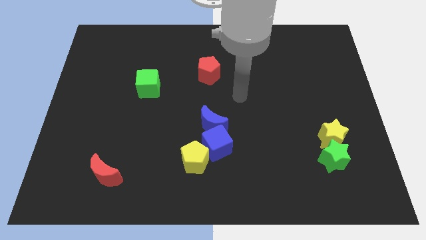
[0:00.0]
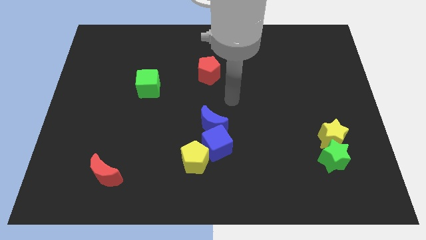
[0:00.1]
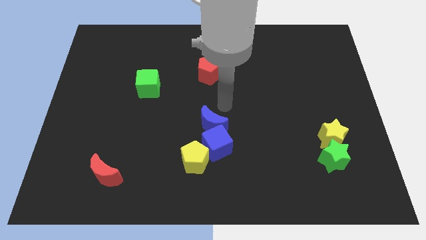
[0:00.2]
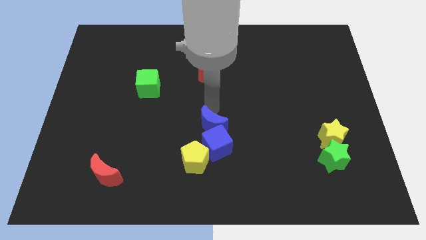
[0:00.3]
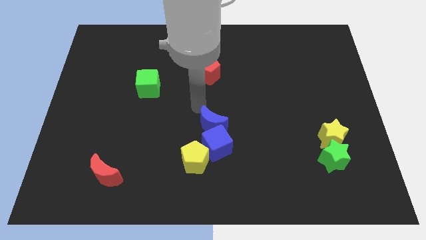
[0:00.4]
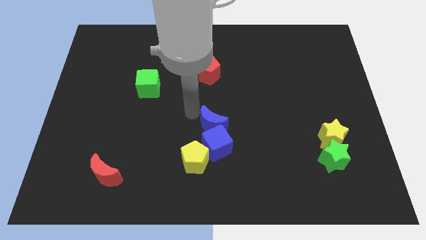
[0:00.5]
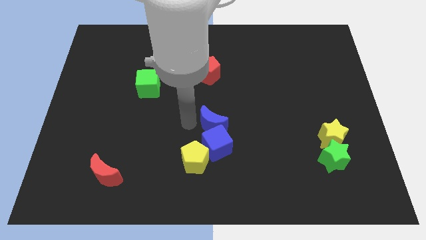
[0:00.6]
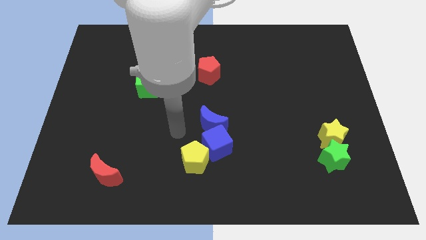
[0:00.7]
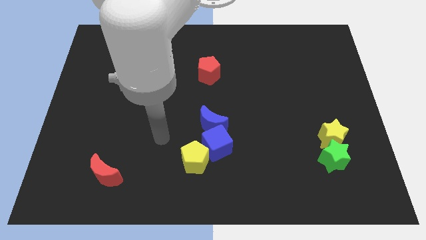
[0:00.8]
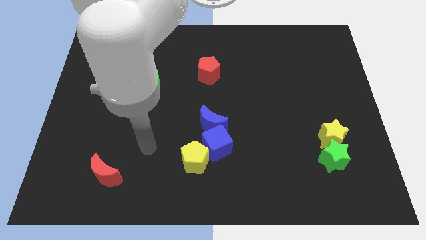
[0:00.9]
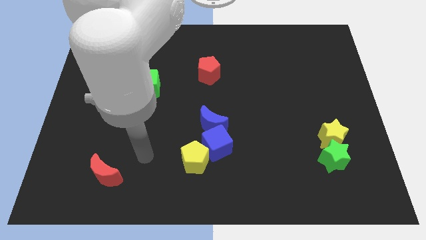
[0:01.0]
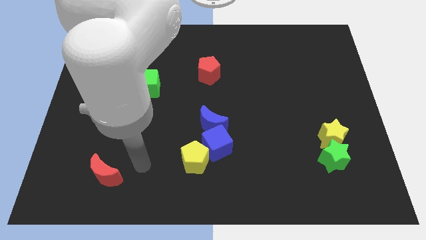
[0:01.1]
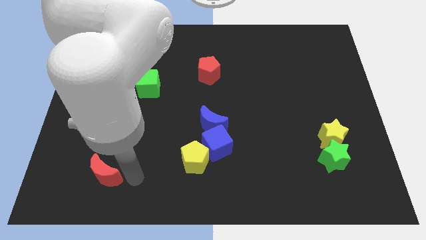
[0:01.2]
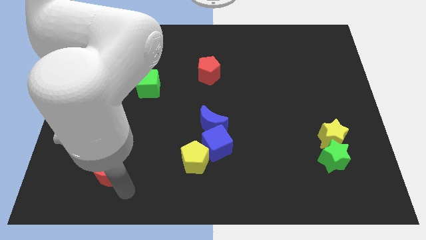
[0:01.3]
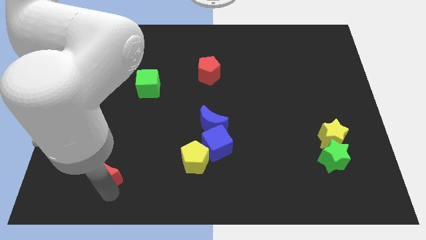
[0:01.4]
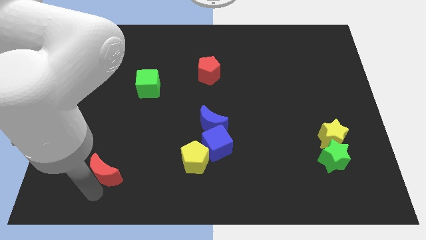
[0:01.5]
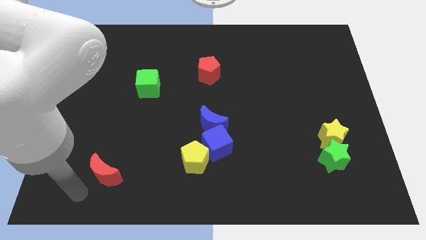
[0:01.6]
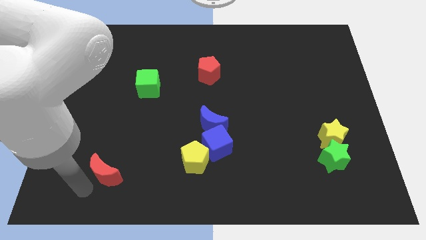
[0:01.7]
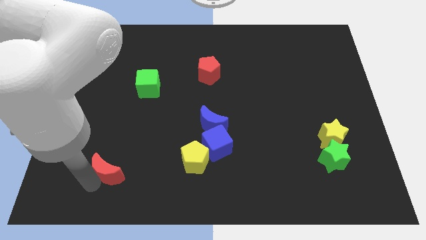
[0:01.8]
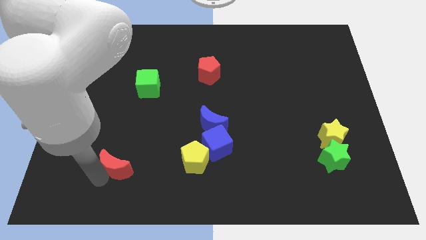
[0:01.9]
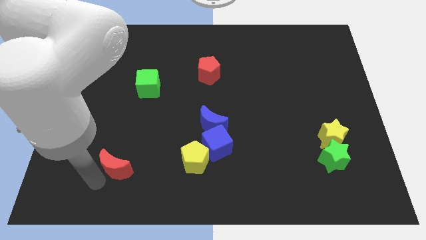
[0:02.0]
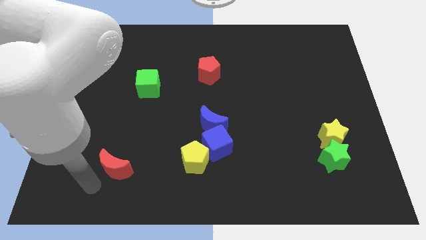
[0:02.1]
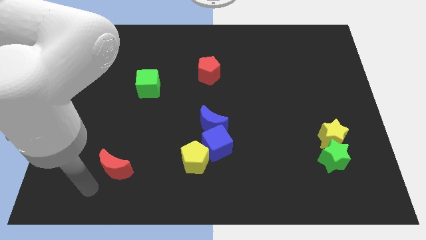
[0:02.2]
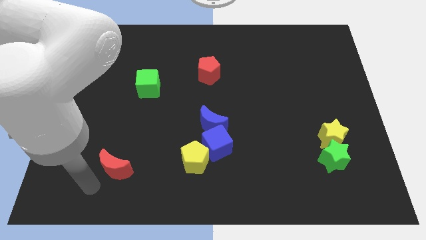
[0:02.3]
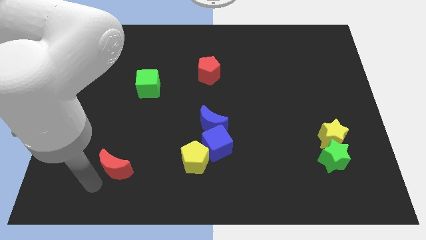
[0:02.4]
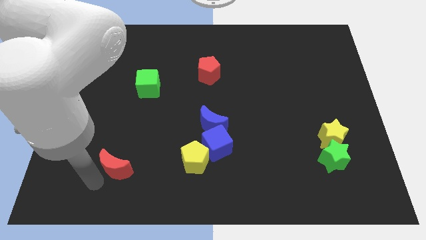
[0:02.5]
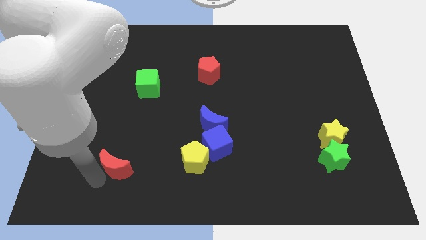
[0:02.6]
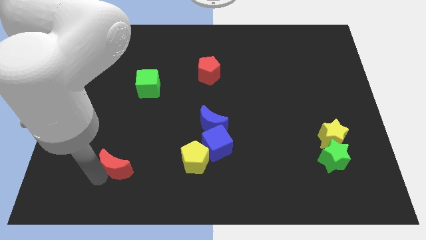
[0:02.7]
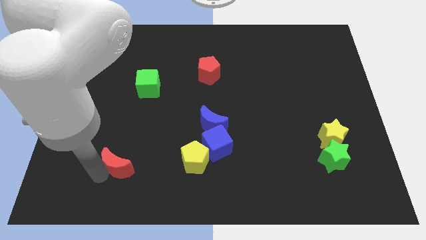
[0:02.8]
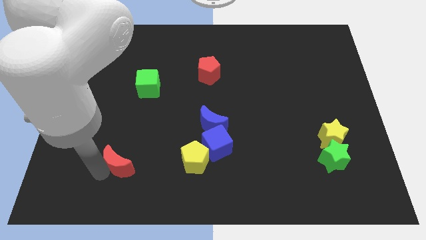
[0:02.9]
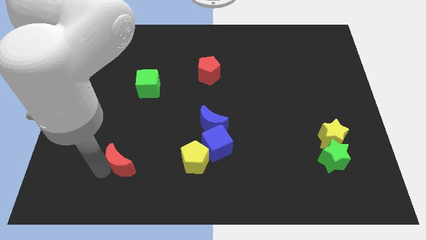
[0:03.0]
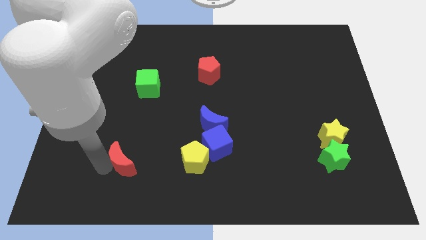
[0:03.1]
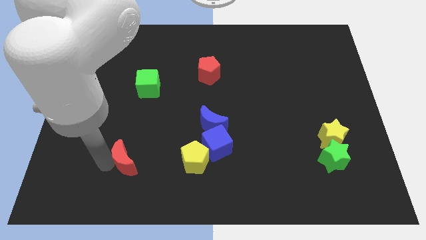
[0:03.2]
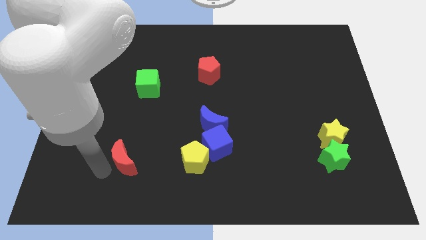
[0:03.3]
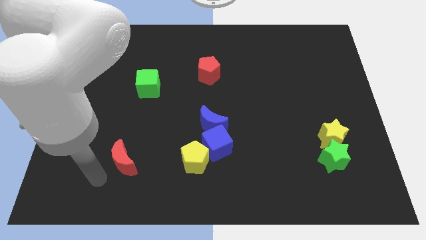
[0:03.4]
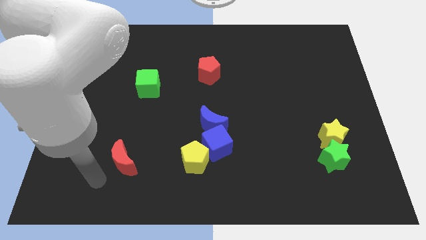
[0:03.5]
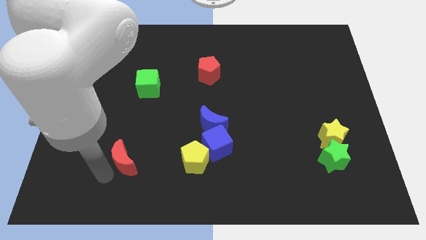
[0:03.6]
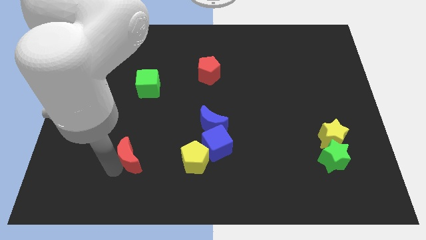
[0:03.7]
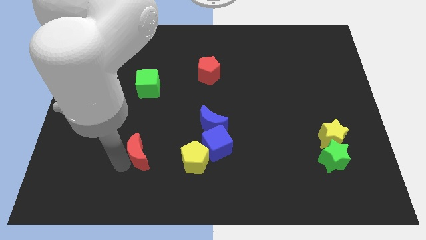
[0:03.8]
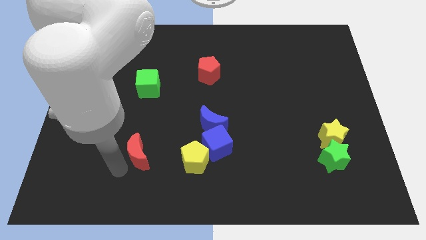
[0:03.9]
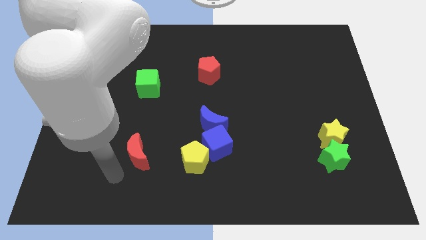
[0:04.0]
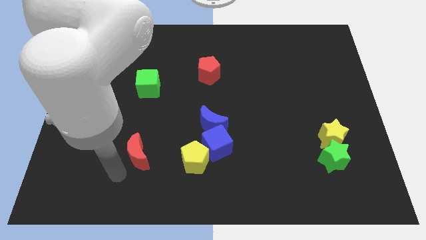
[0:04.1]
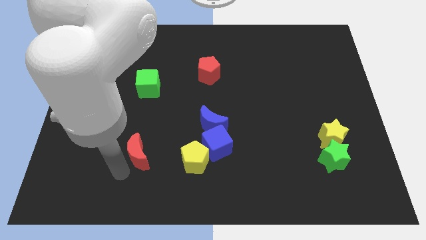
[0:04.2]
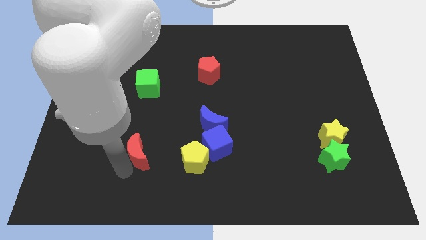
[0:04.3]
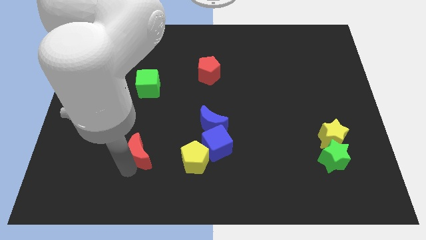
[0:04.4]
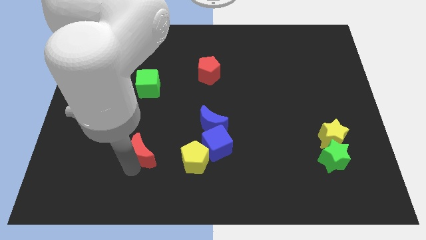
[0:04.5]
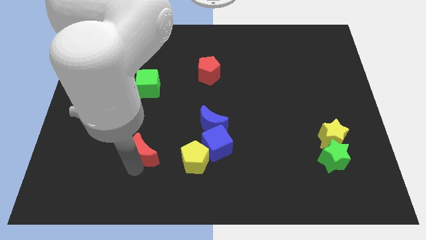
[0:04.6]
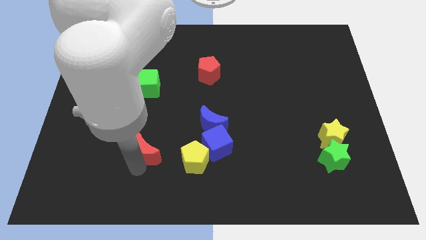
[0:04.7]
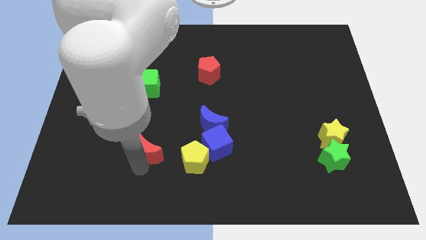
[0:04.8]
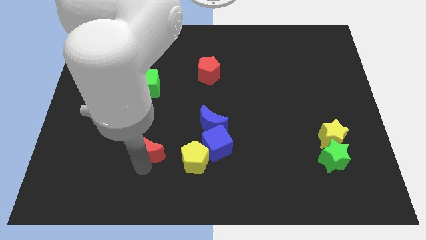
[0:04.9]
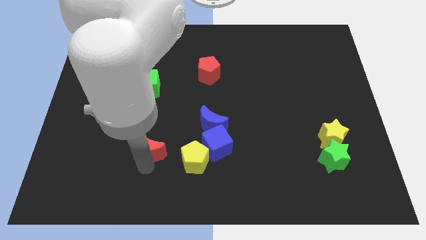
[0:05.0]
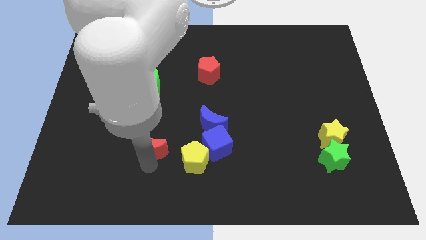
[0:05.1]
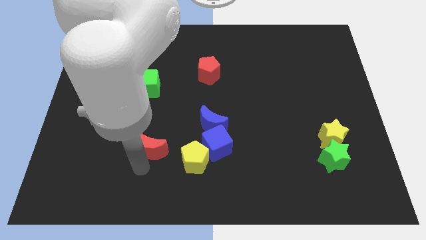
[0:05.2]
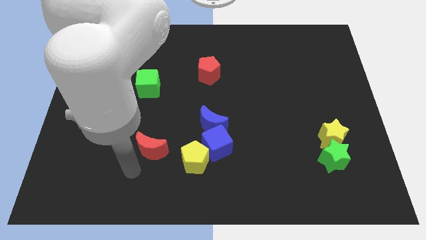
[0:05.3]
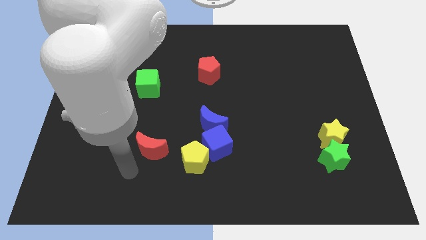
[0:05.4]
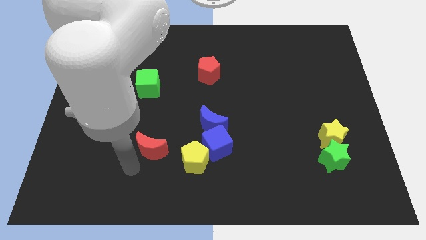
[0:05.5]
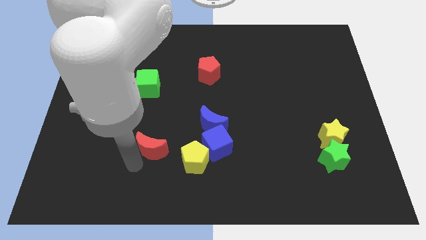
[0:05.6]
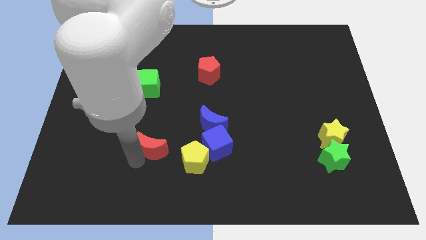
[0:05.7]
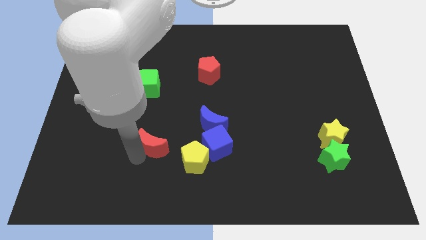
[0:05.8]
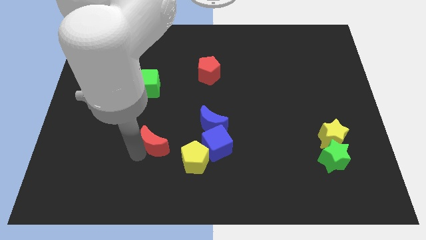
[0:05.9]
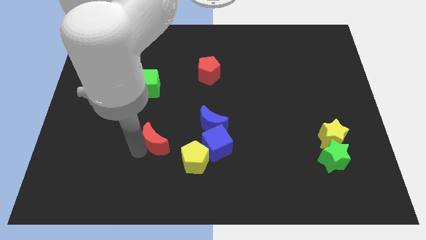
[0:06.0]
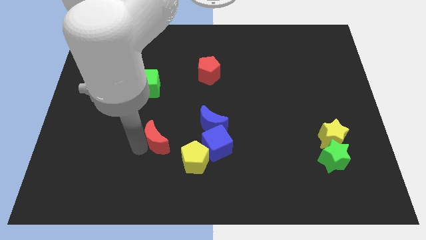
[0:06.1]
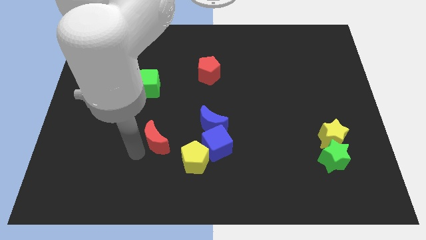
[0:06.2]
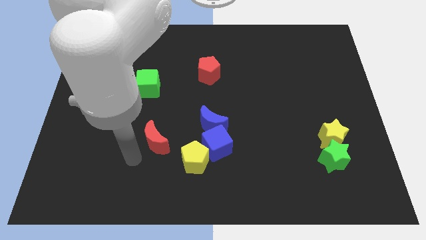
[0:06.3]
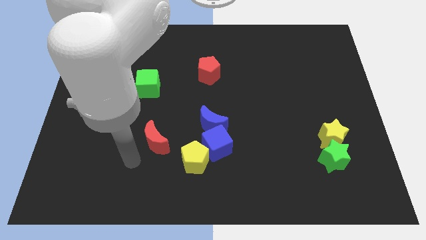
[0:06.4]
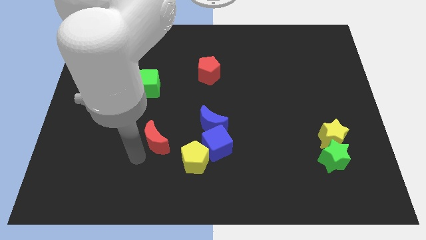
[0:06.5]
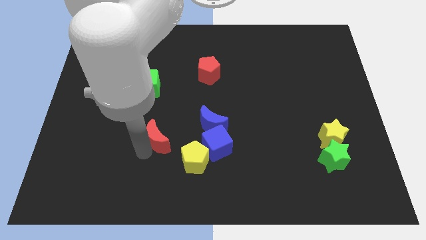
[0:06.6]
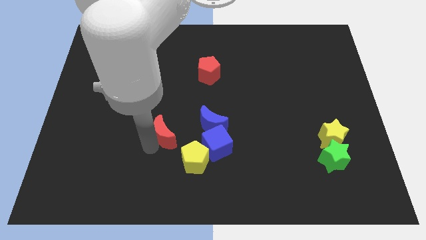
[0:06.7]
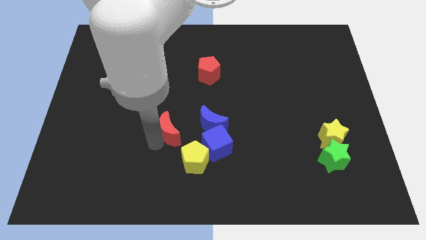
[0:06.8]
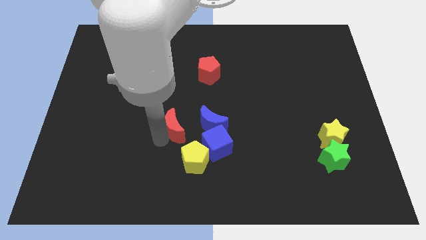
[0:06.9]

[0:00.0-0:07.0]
move the red moon to the middle of the board
